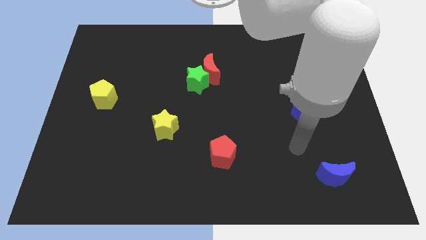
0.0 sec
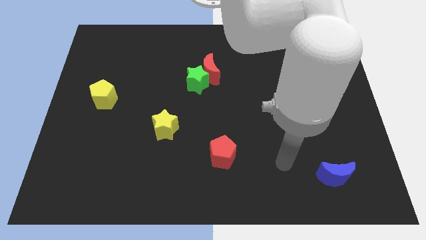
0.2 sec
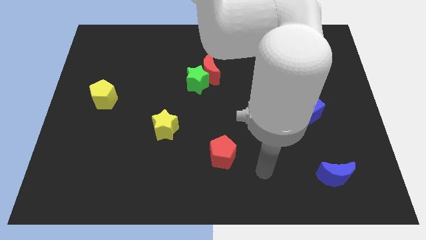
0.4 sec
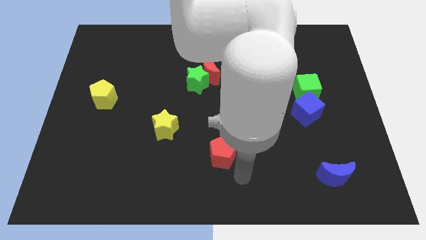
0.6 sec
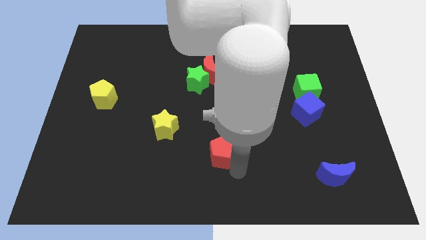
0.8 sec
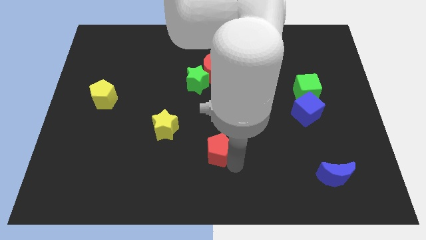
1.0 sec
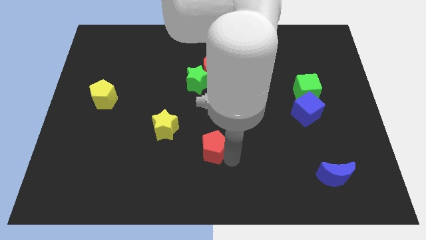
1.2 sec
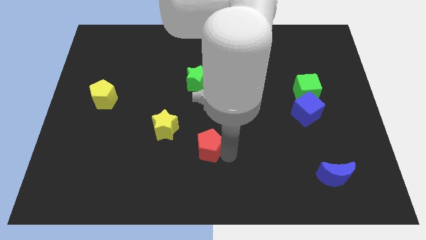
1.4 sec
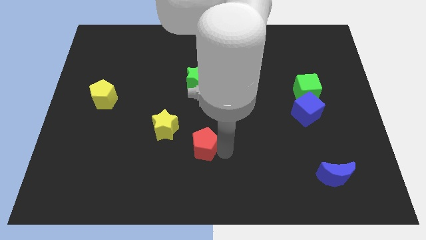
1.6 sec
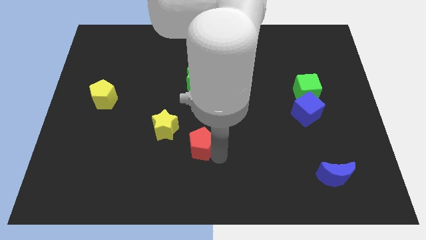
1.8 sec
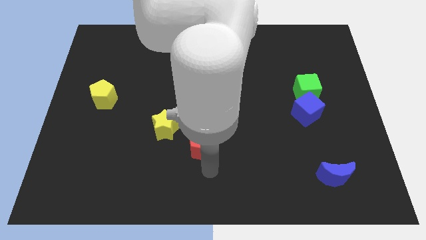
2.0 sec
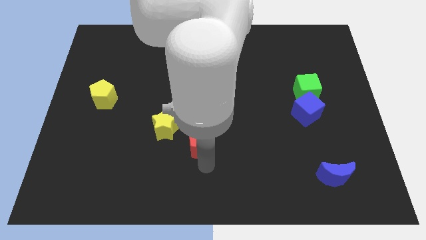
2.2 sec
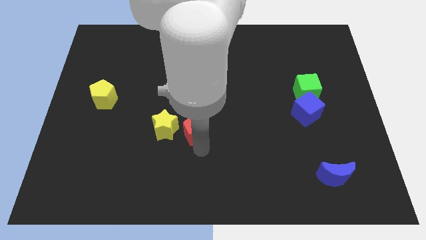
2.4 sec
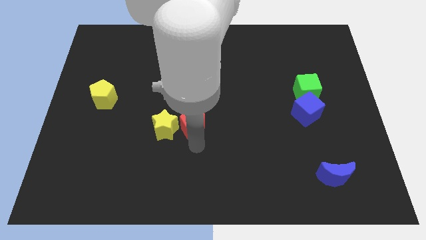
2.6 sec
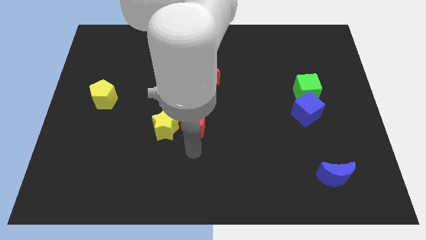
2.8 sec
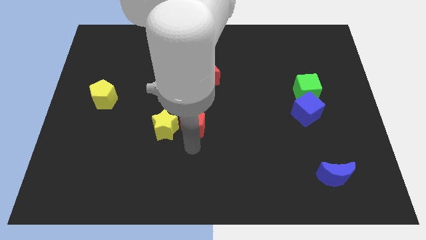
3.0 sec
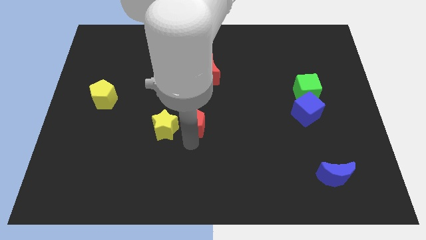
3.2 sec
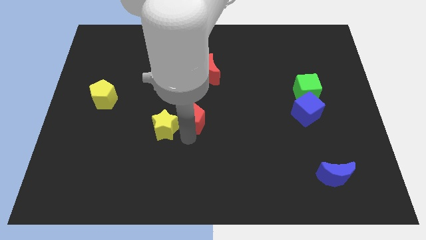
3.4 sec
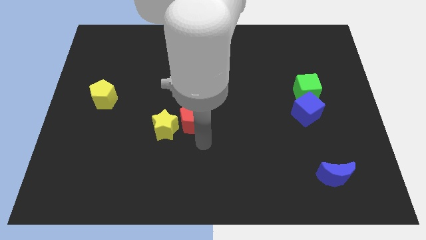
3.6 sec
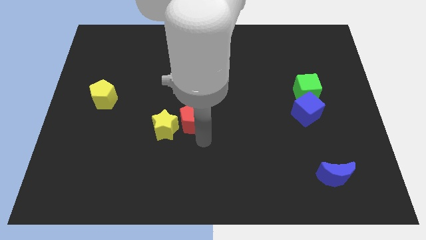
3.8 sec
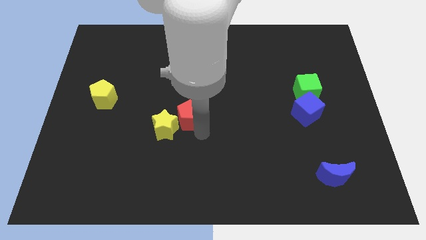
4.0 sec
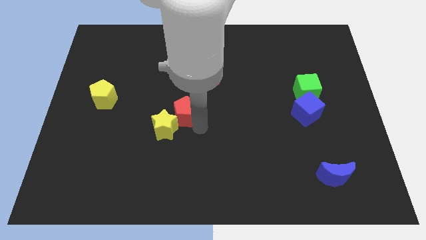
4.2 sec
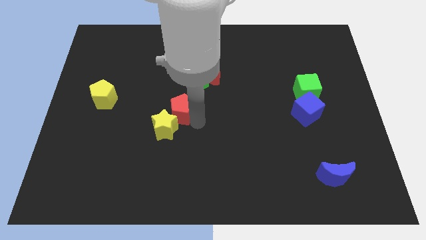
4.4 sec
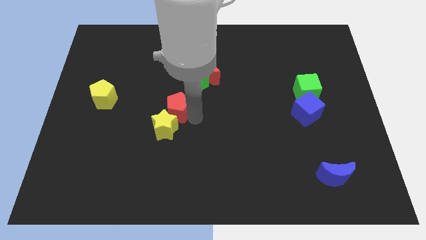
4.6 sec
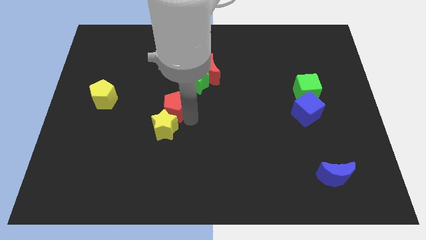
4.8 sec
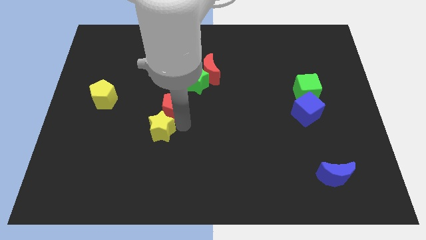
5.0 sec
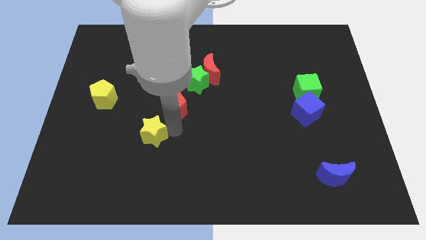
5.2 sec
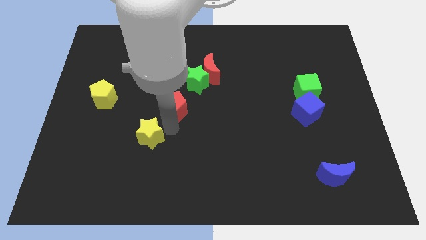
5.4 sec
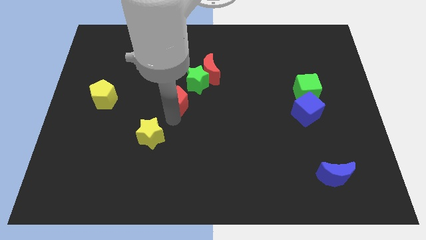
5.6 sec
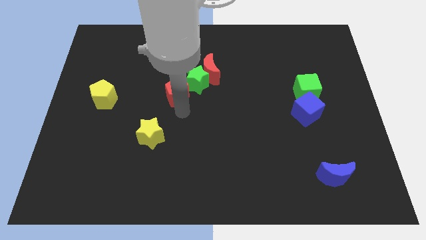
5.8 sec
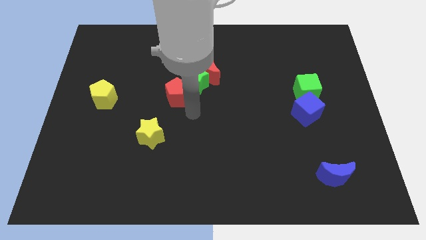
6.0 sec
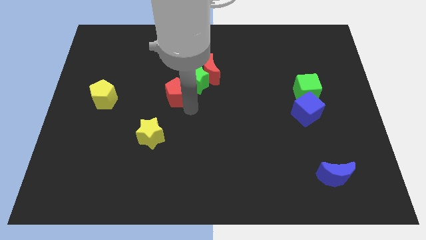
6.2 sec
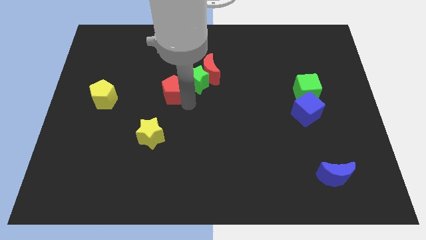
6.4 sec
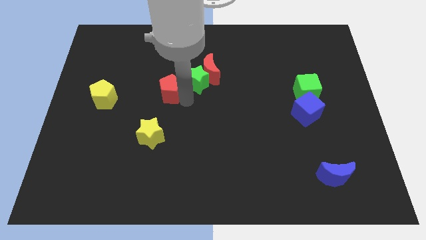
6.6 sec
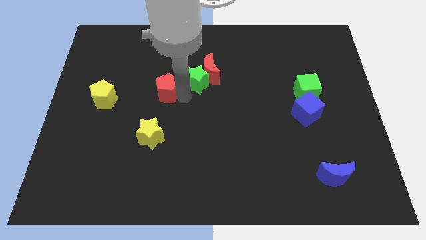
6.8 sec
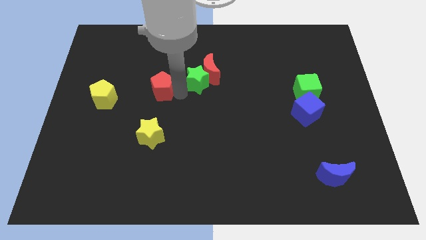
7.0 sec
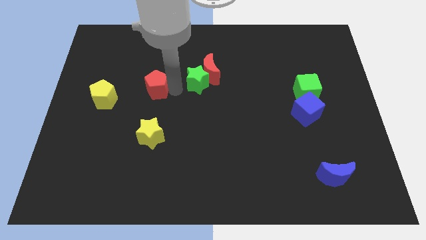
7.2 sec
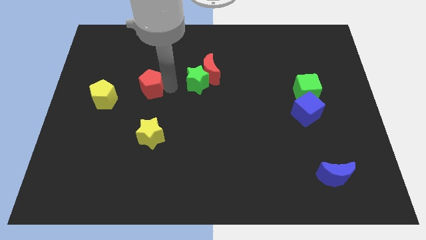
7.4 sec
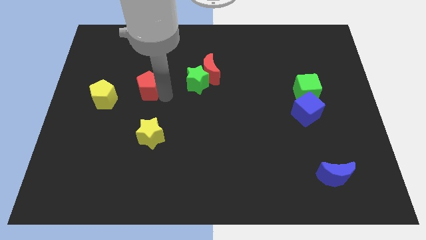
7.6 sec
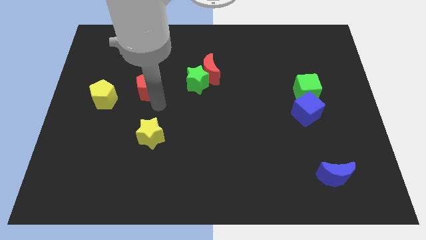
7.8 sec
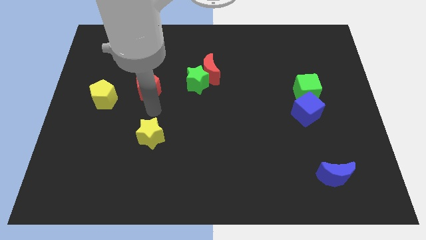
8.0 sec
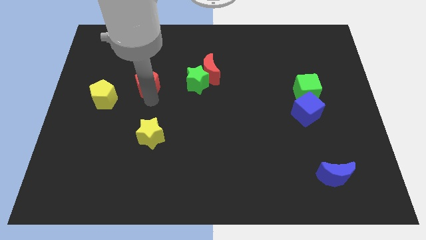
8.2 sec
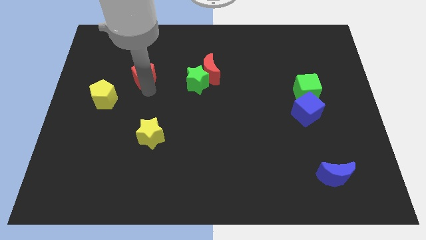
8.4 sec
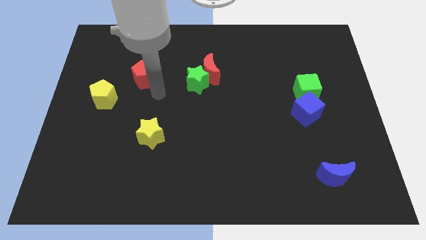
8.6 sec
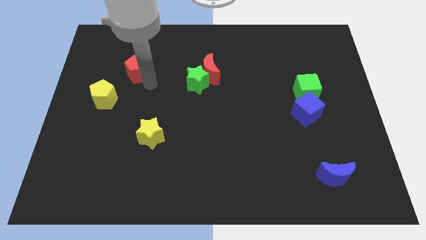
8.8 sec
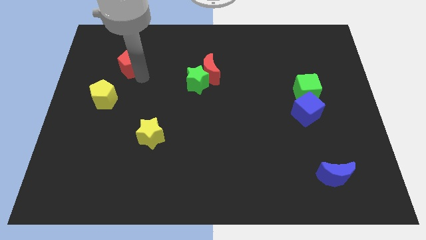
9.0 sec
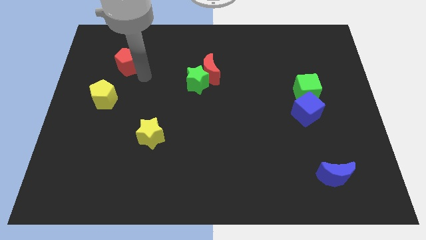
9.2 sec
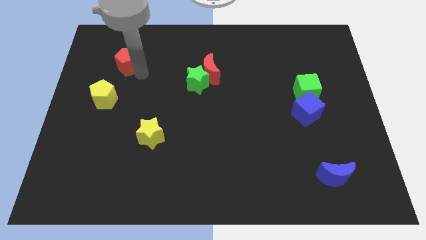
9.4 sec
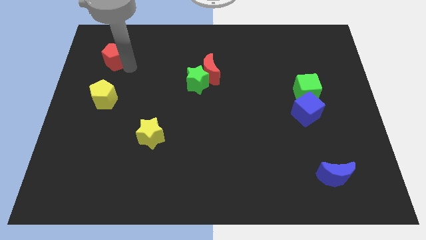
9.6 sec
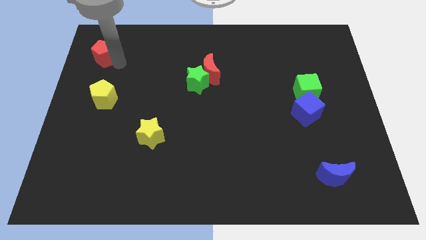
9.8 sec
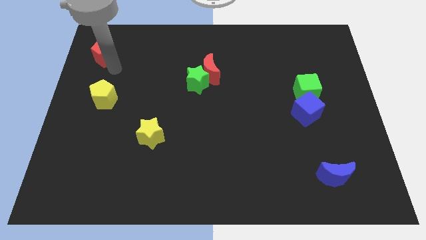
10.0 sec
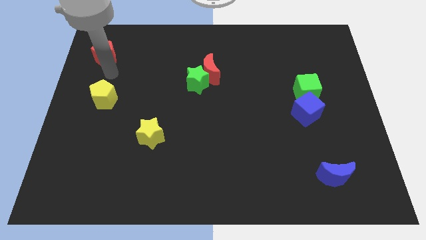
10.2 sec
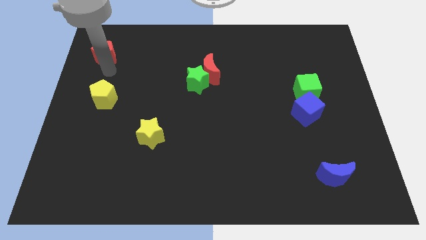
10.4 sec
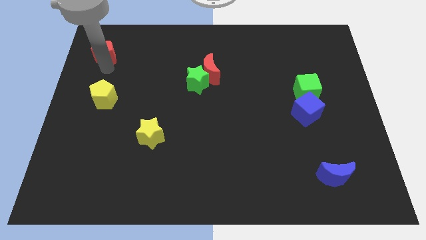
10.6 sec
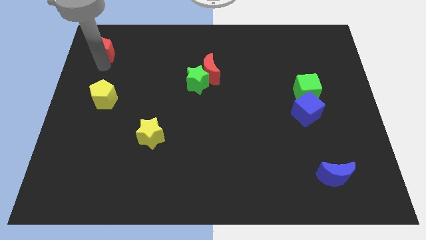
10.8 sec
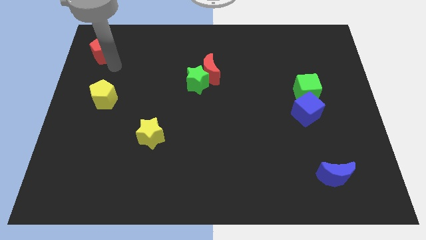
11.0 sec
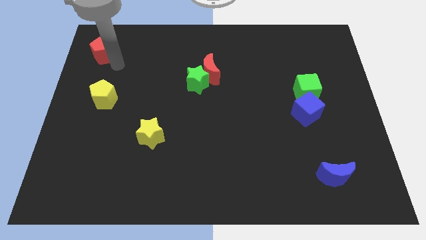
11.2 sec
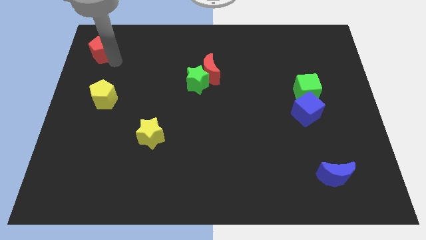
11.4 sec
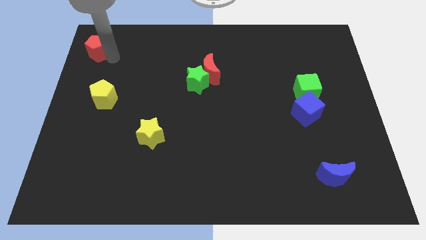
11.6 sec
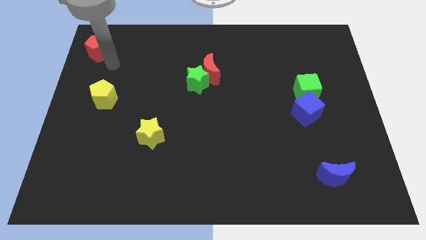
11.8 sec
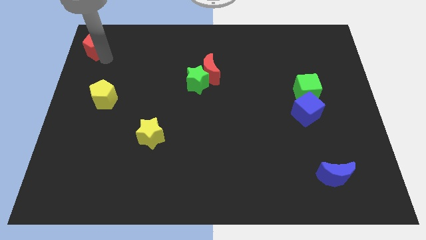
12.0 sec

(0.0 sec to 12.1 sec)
push the red pentagon to the top left

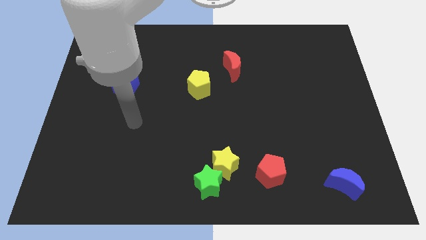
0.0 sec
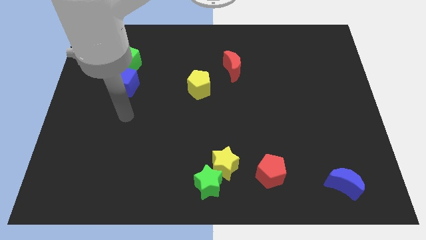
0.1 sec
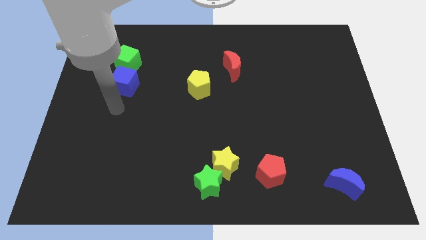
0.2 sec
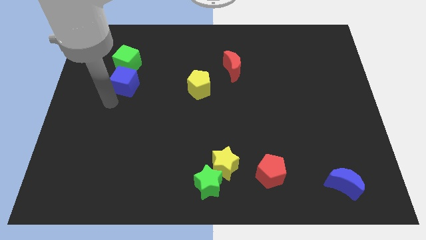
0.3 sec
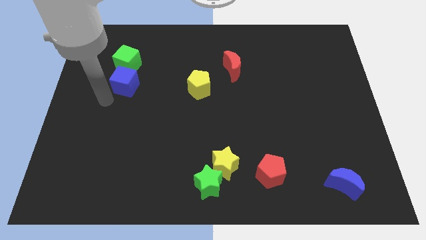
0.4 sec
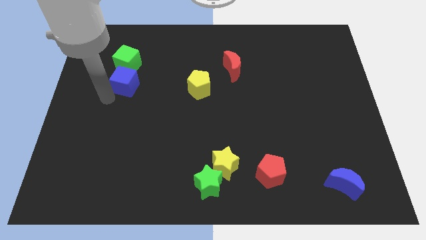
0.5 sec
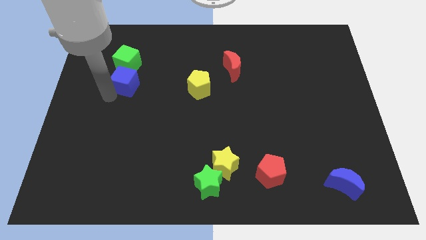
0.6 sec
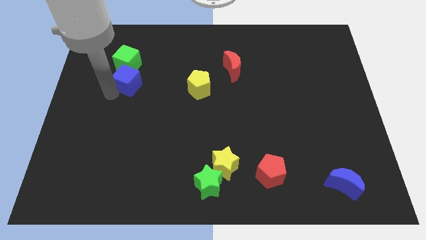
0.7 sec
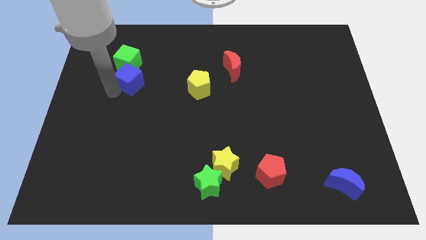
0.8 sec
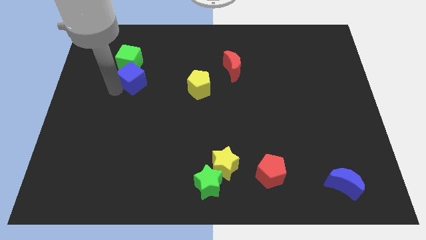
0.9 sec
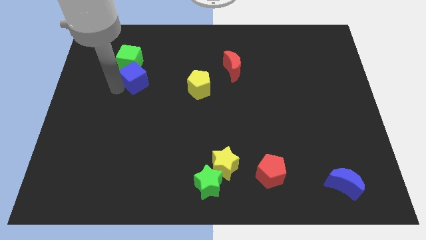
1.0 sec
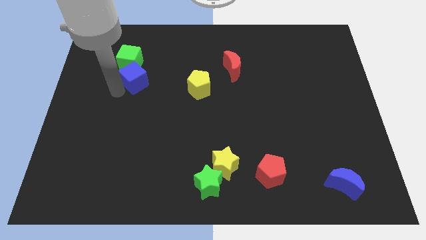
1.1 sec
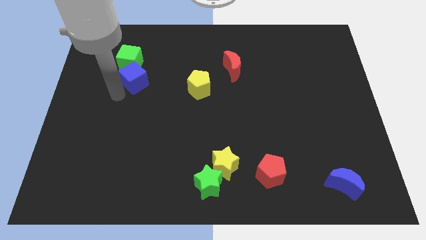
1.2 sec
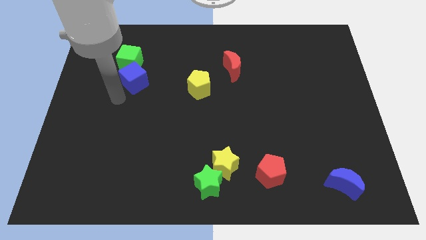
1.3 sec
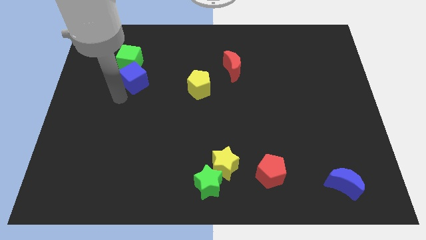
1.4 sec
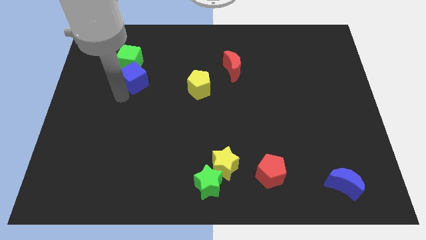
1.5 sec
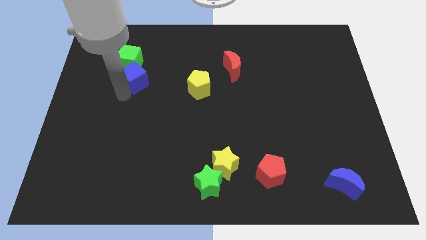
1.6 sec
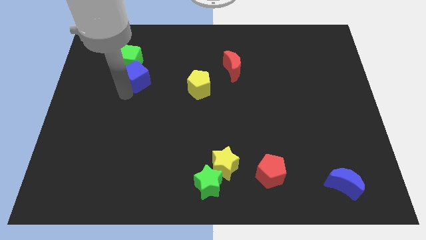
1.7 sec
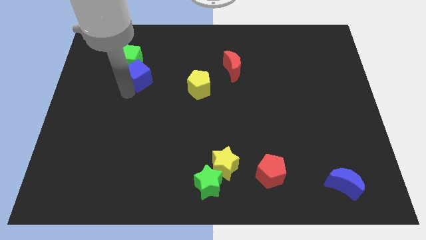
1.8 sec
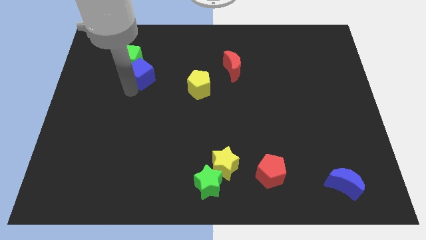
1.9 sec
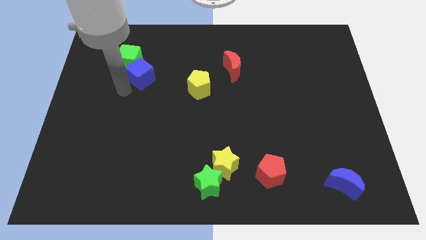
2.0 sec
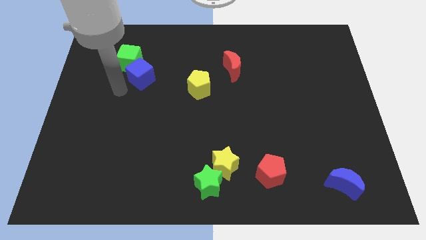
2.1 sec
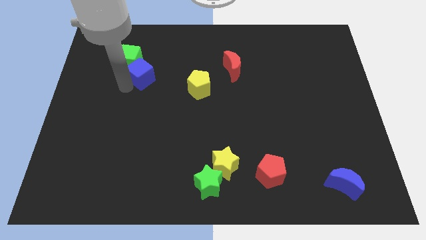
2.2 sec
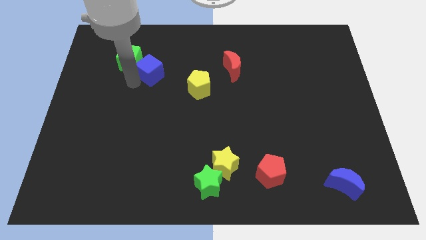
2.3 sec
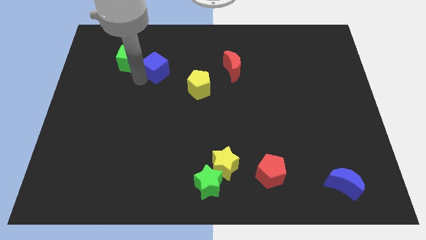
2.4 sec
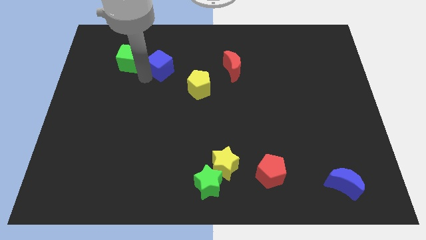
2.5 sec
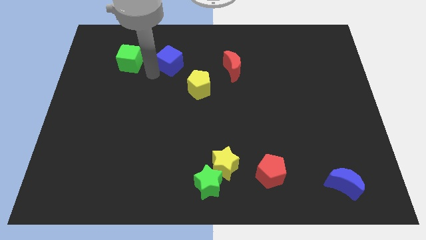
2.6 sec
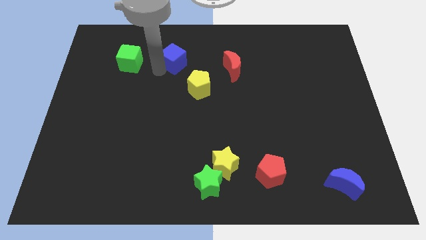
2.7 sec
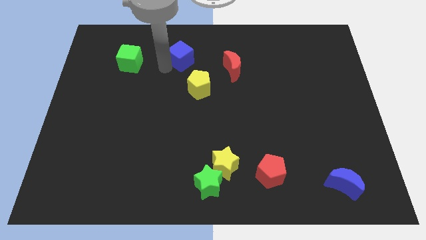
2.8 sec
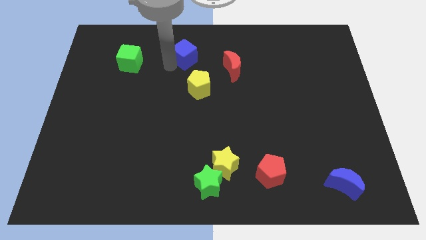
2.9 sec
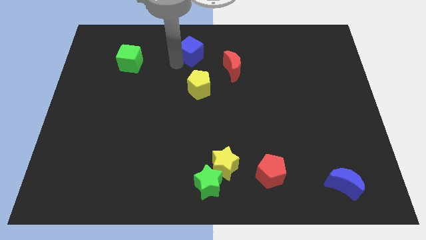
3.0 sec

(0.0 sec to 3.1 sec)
put the blue cube to the towards your base
